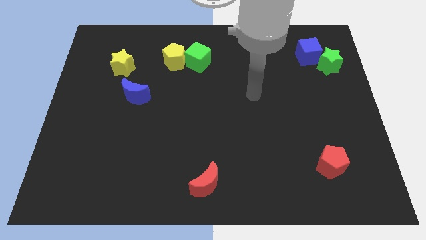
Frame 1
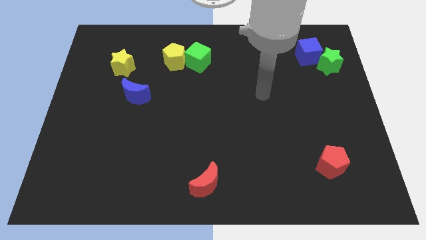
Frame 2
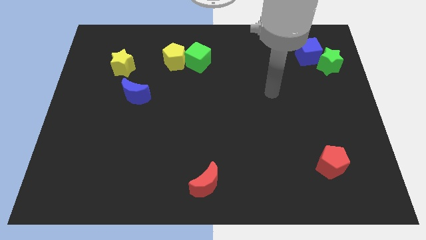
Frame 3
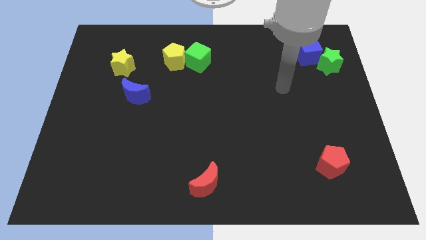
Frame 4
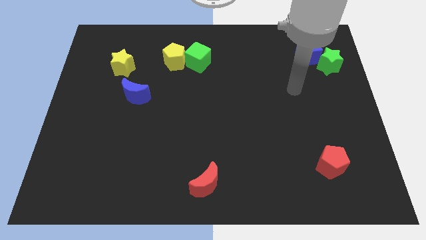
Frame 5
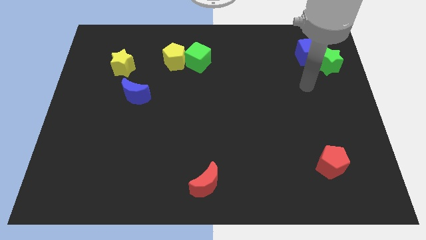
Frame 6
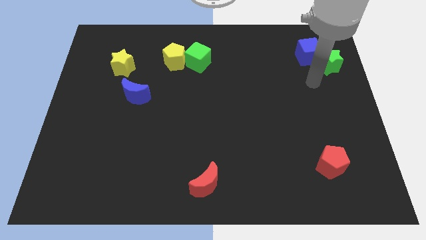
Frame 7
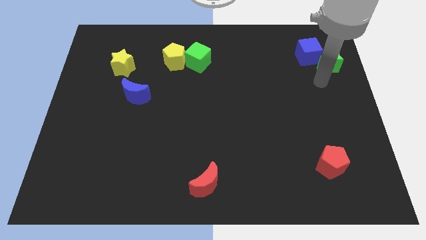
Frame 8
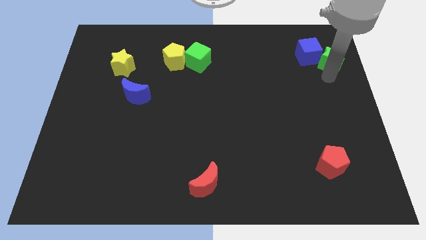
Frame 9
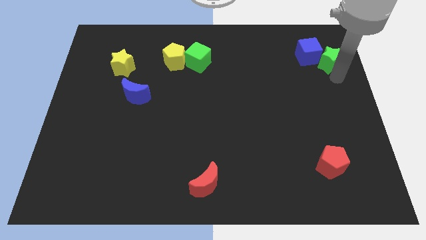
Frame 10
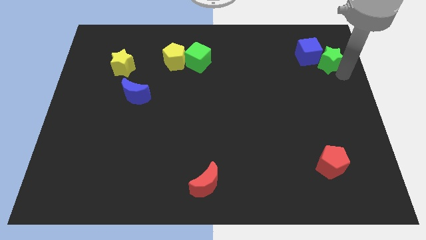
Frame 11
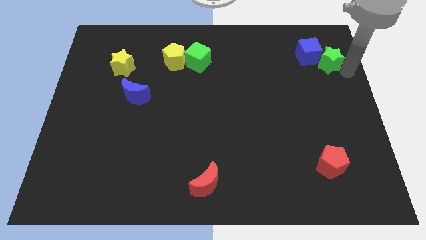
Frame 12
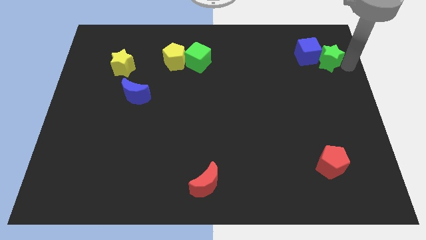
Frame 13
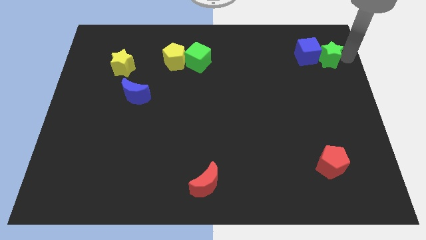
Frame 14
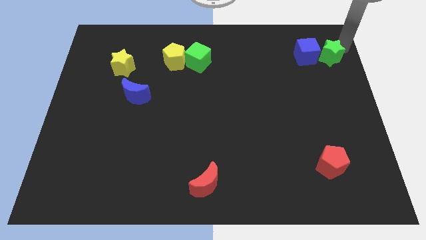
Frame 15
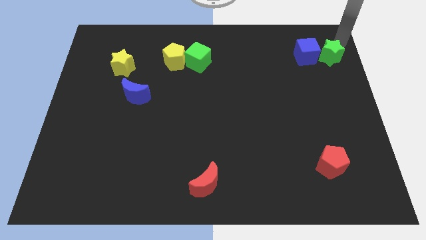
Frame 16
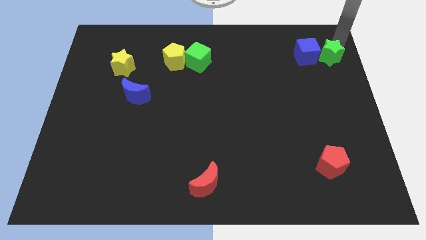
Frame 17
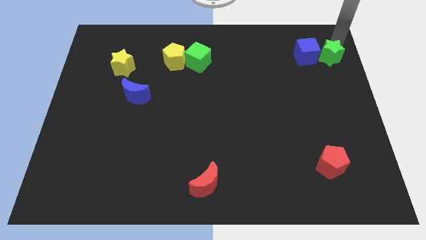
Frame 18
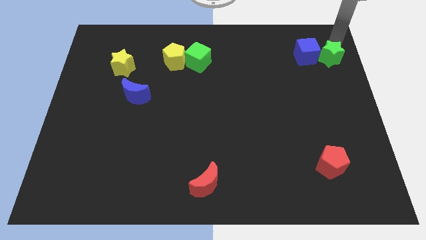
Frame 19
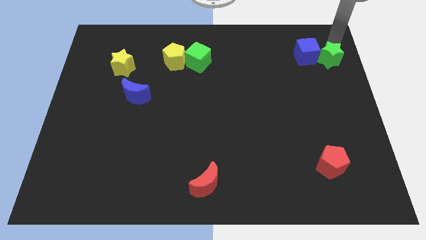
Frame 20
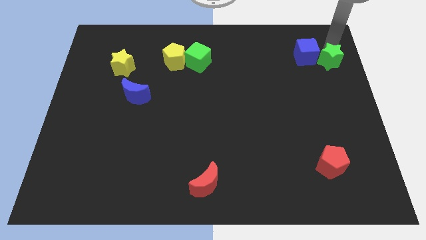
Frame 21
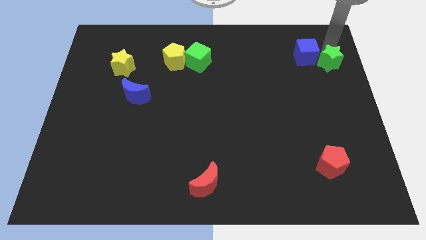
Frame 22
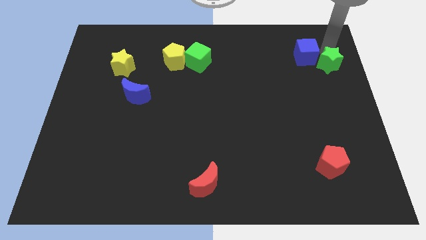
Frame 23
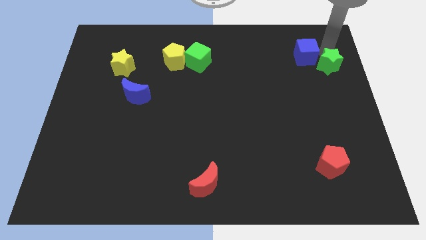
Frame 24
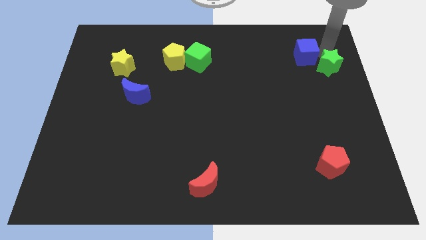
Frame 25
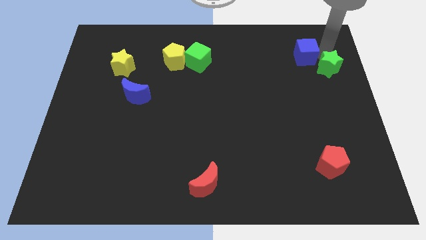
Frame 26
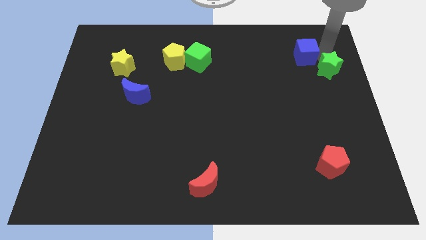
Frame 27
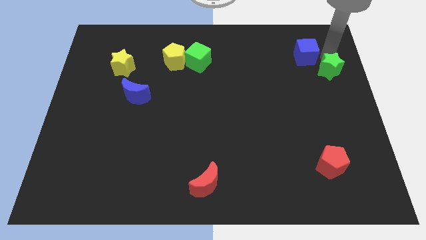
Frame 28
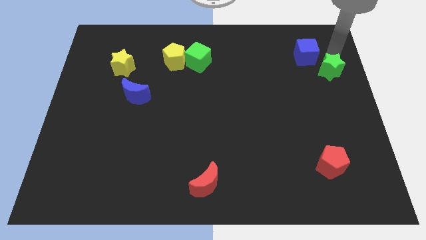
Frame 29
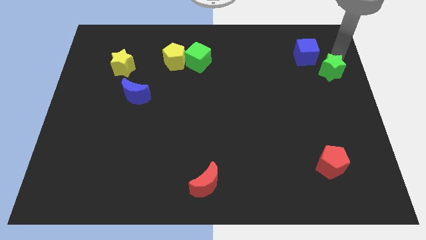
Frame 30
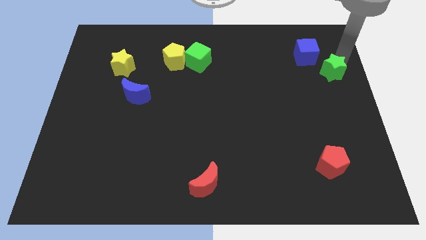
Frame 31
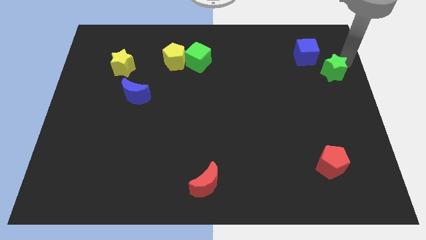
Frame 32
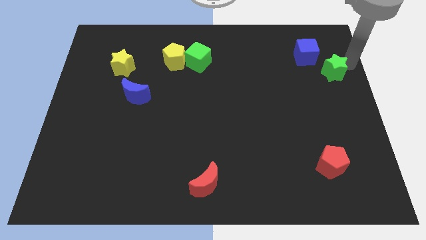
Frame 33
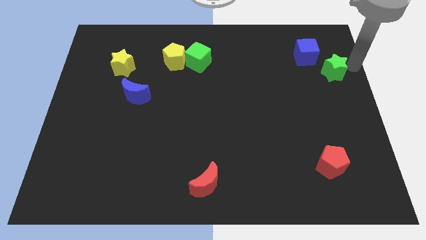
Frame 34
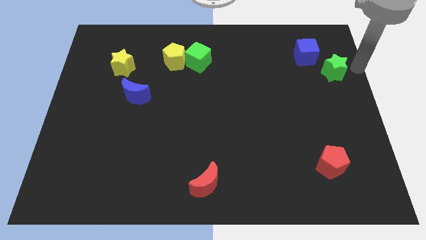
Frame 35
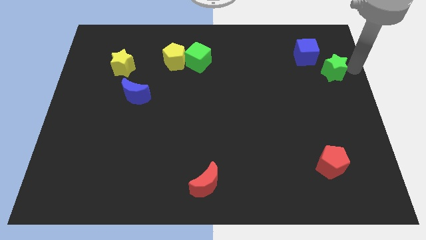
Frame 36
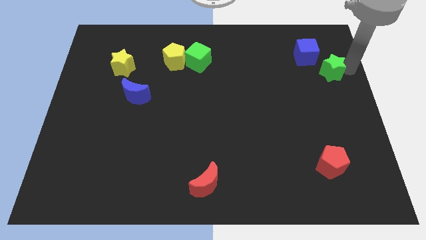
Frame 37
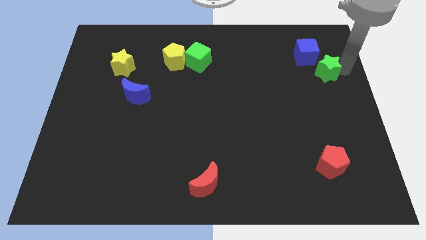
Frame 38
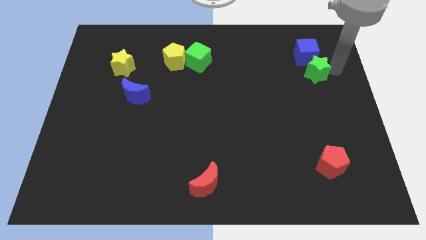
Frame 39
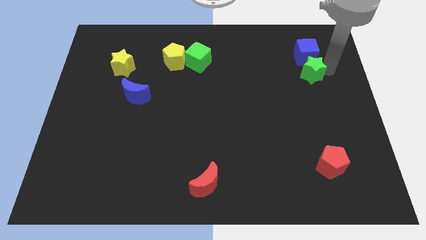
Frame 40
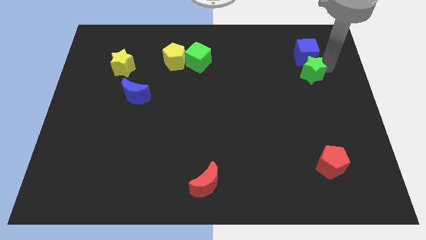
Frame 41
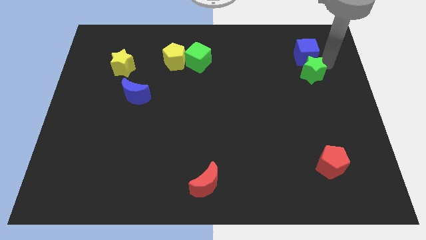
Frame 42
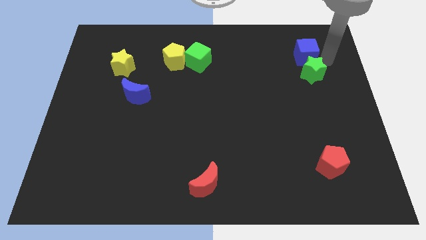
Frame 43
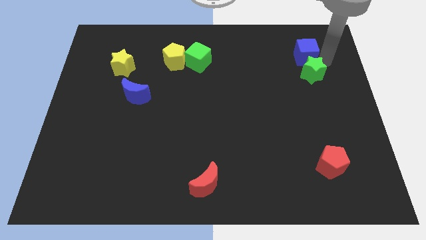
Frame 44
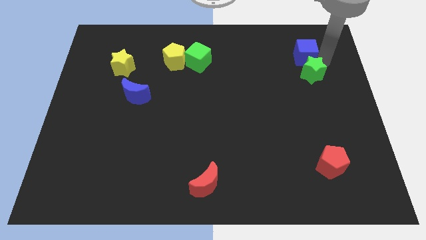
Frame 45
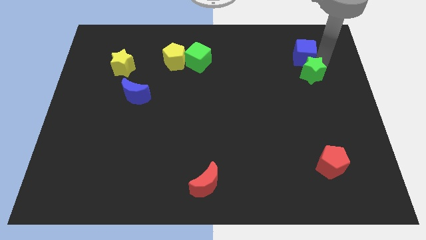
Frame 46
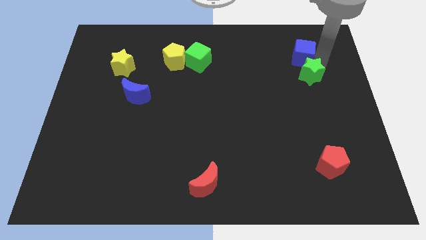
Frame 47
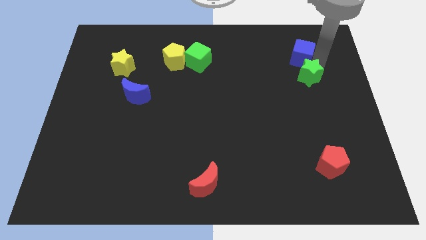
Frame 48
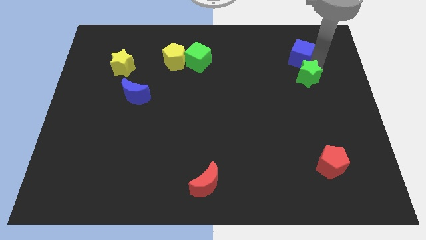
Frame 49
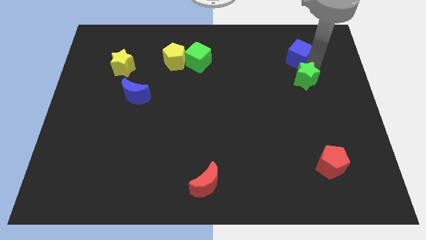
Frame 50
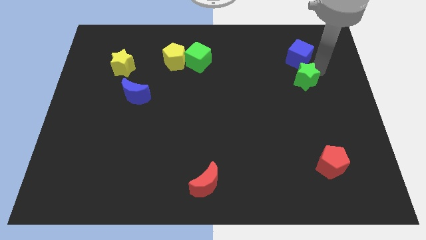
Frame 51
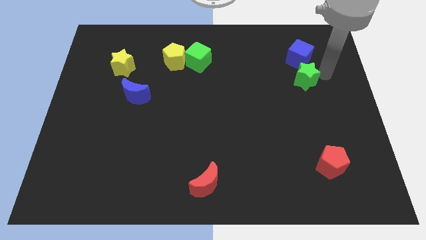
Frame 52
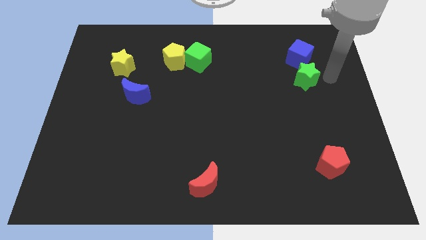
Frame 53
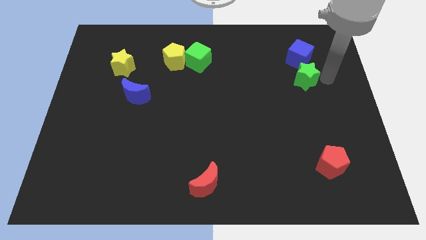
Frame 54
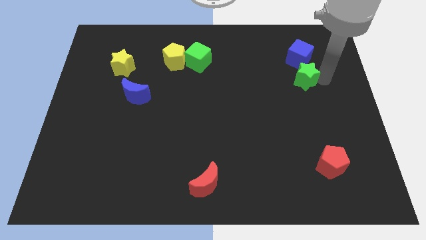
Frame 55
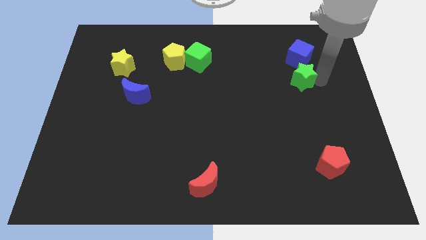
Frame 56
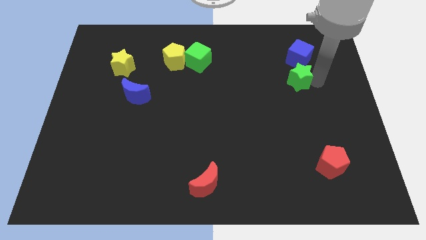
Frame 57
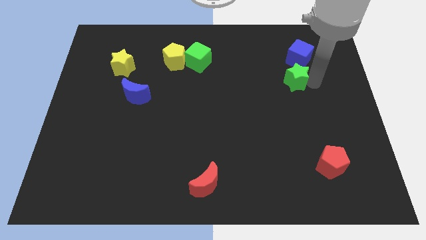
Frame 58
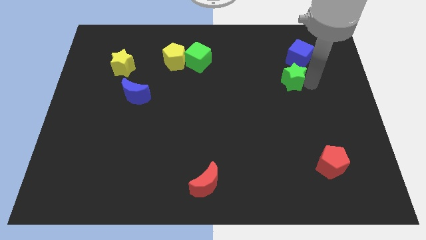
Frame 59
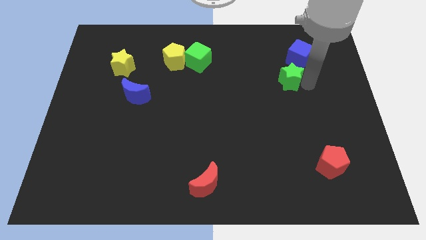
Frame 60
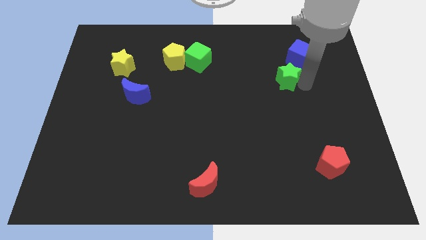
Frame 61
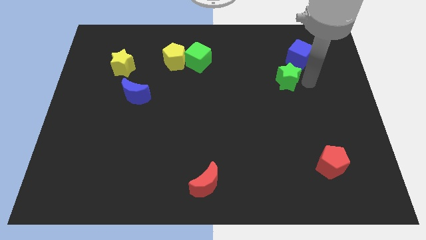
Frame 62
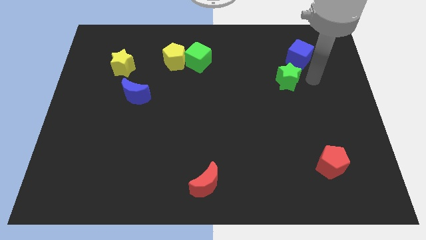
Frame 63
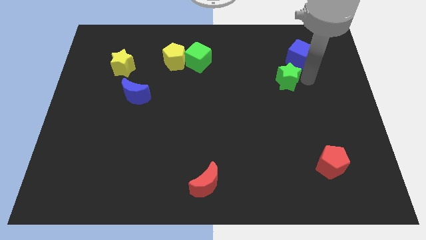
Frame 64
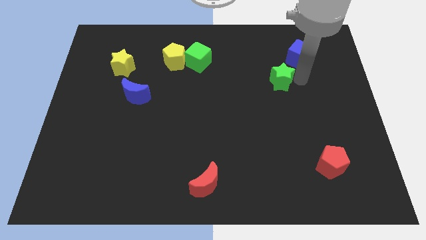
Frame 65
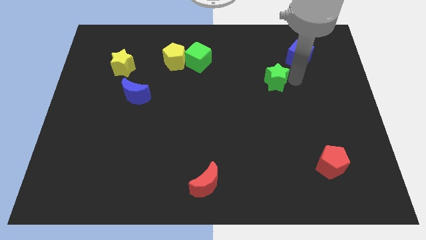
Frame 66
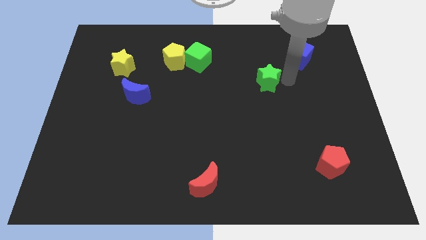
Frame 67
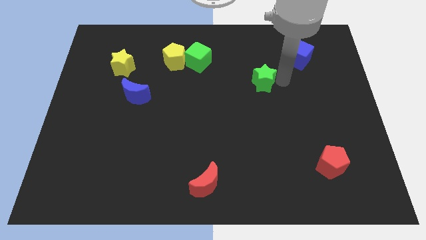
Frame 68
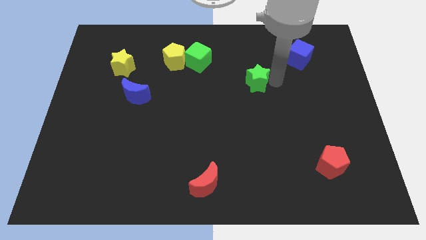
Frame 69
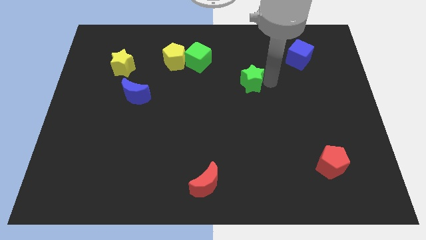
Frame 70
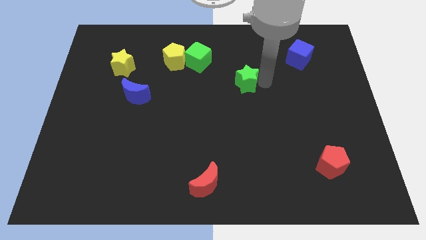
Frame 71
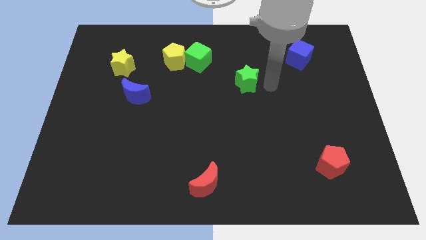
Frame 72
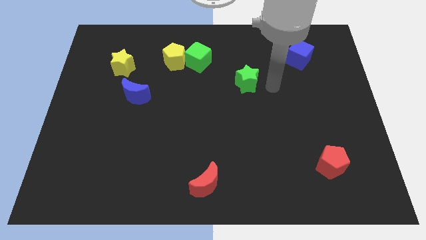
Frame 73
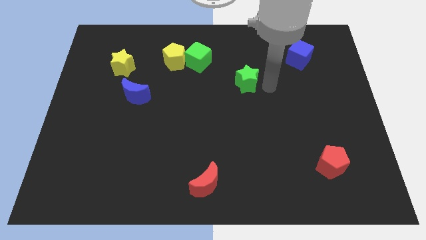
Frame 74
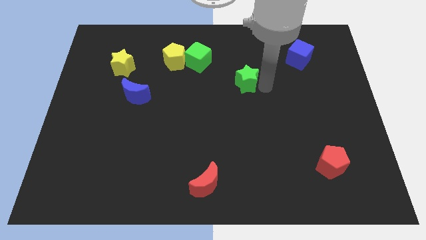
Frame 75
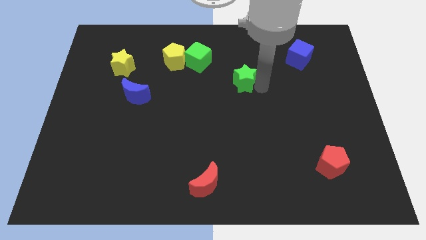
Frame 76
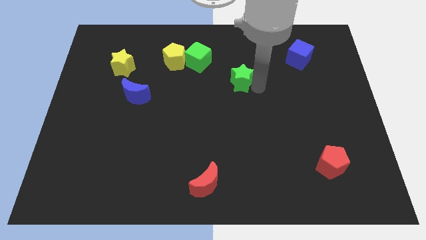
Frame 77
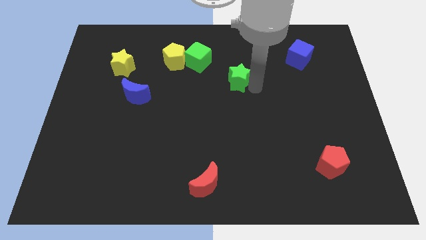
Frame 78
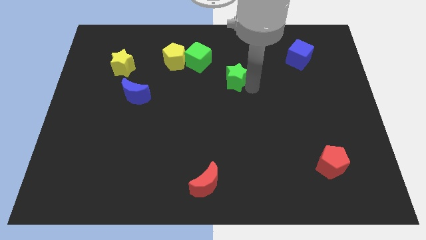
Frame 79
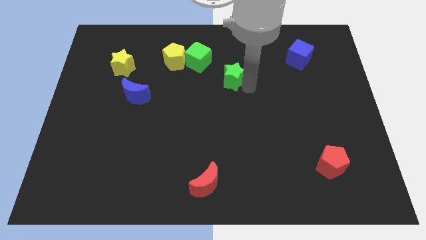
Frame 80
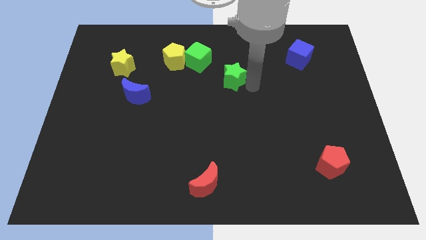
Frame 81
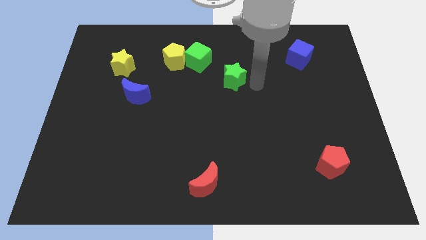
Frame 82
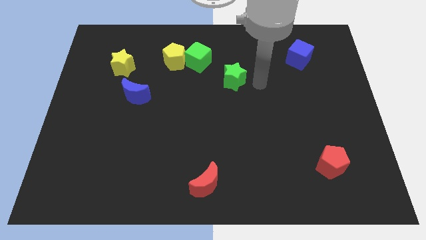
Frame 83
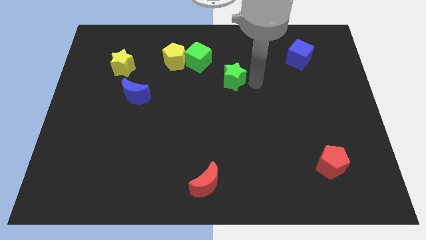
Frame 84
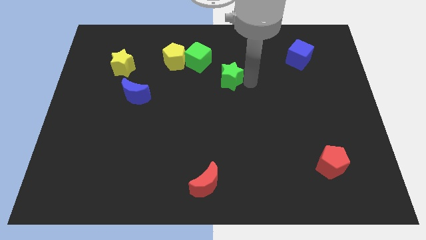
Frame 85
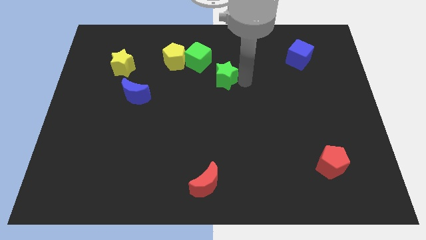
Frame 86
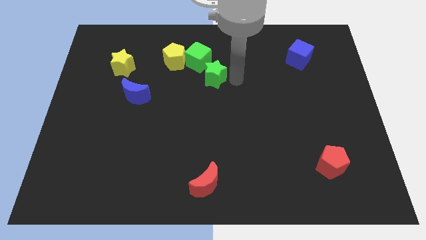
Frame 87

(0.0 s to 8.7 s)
move the green star to the bottom right side of the yellow pentagon
